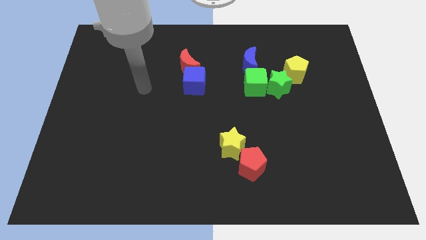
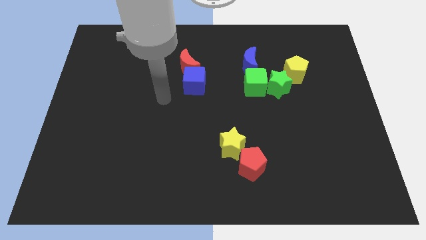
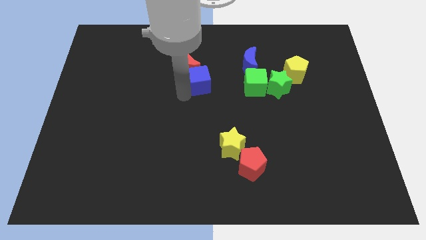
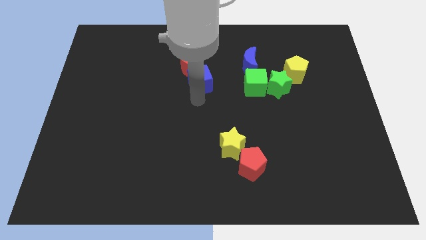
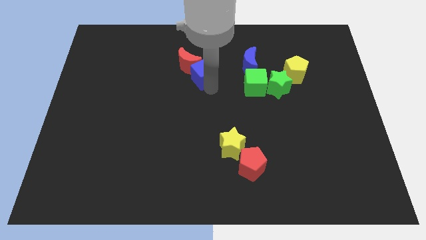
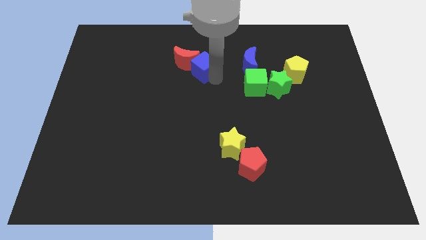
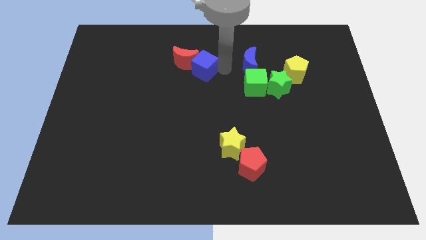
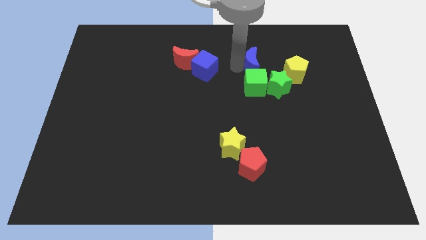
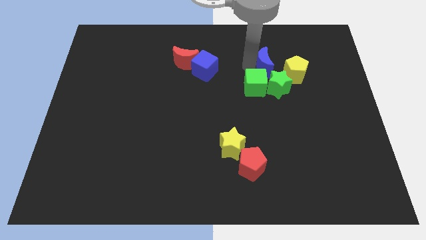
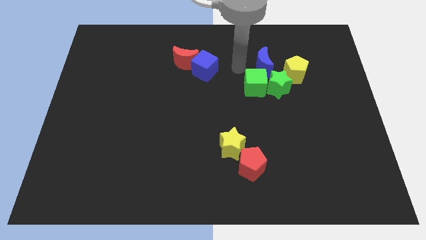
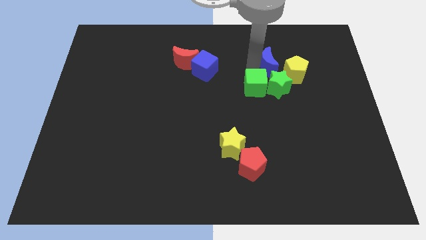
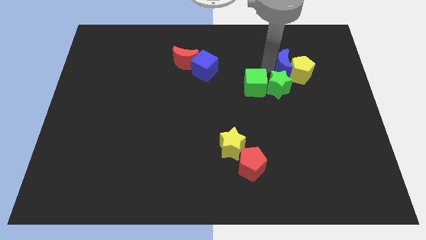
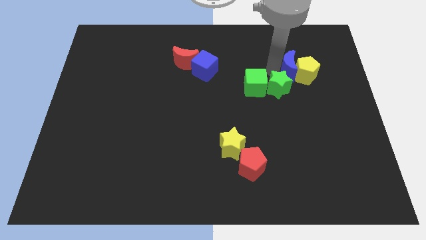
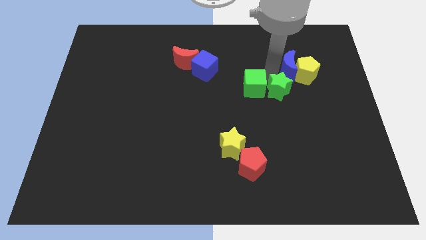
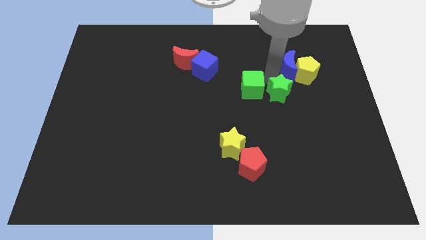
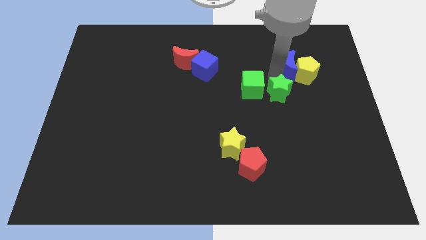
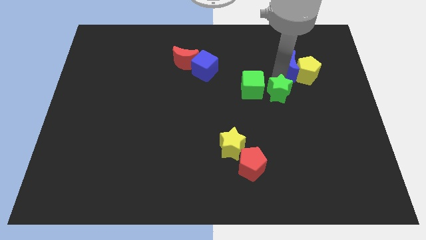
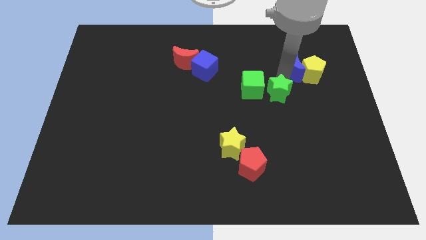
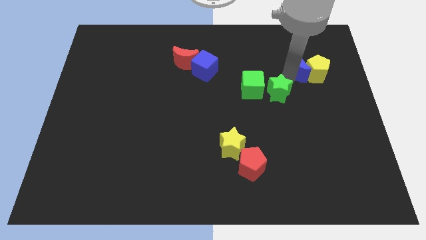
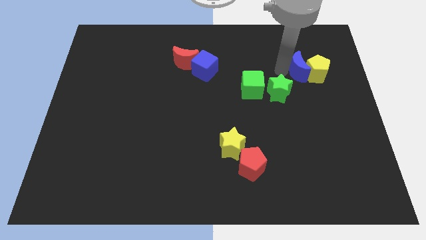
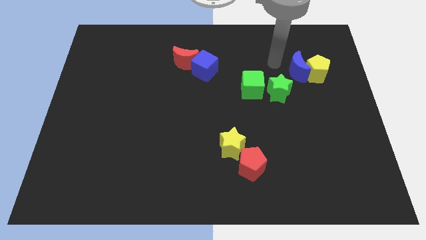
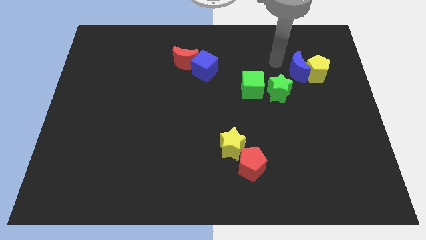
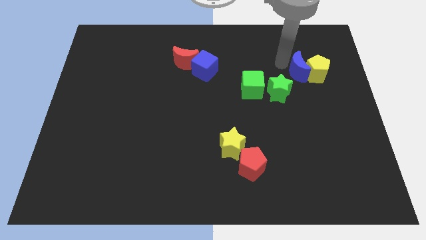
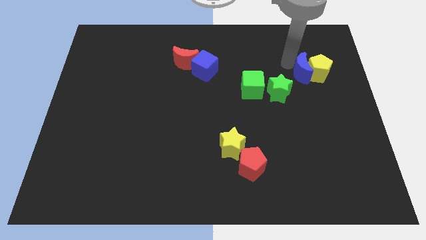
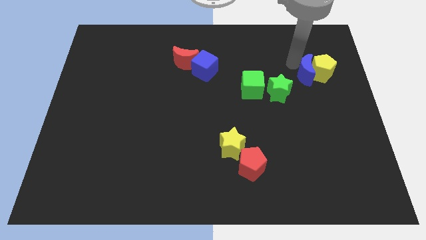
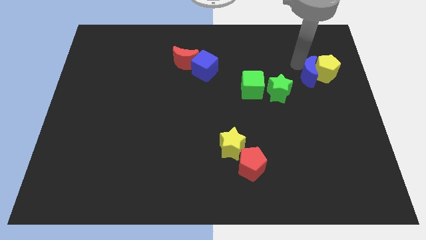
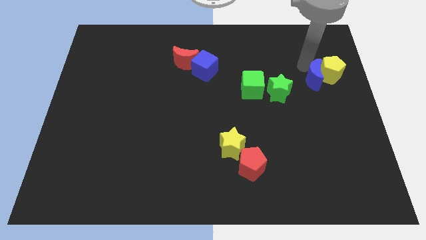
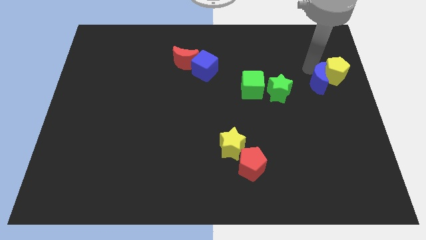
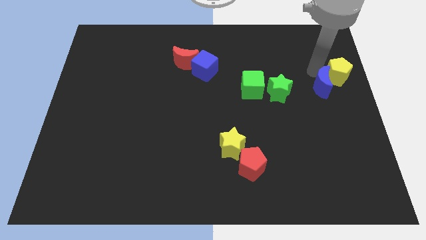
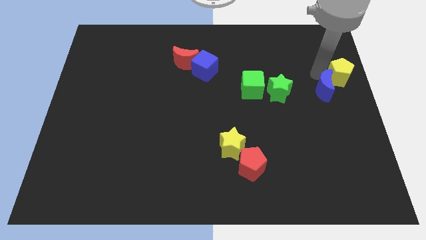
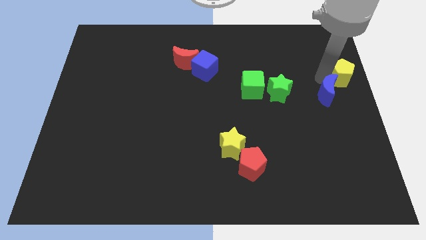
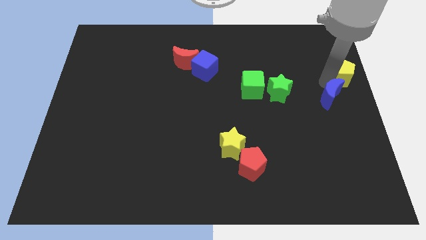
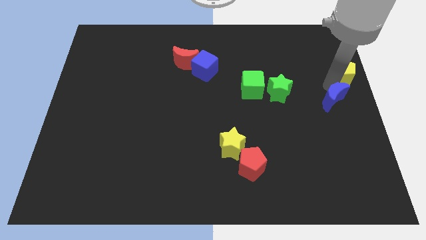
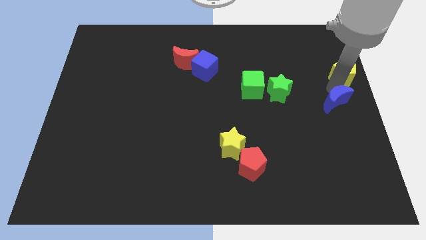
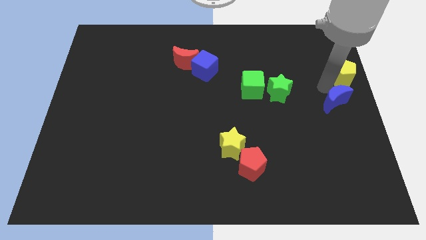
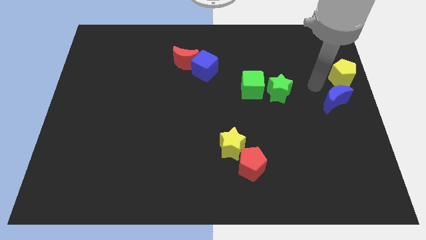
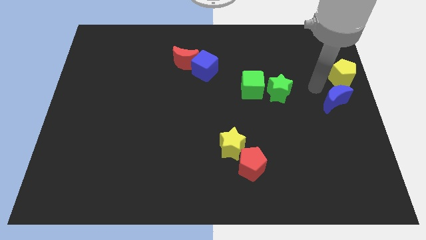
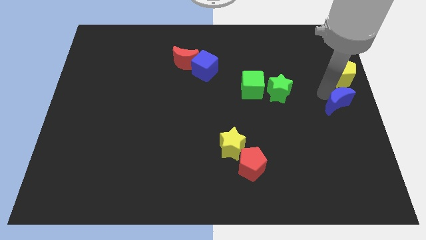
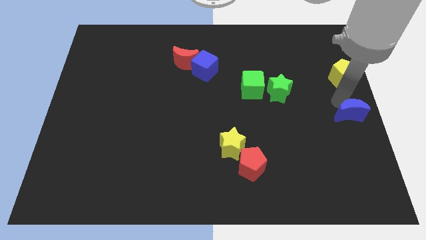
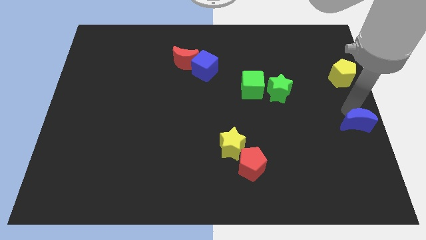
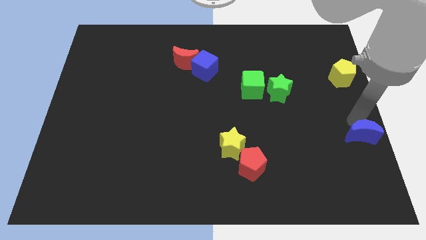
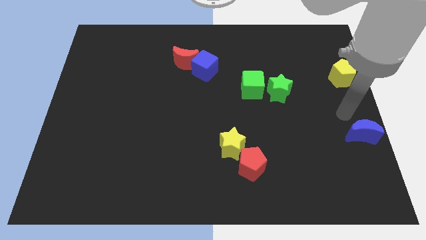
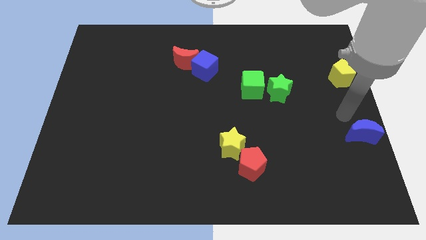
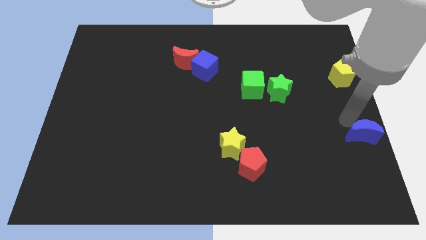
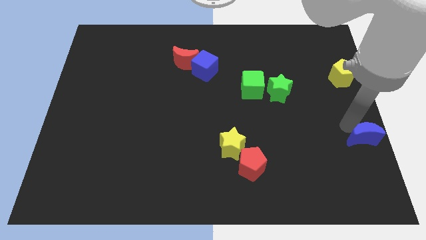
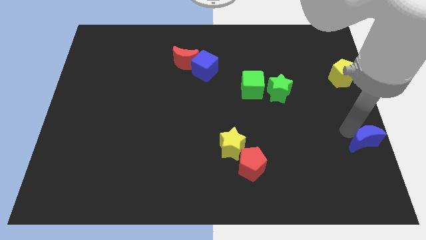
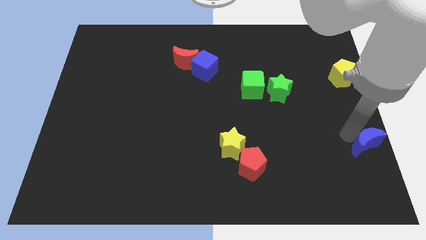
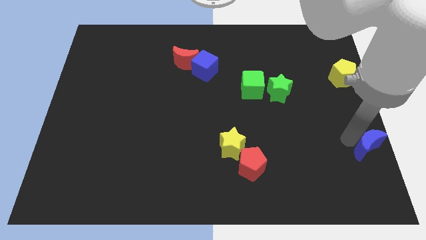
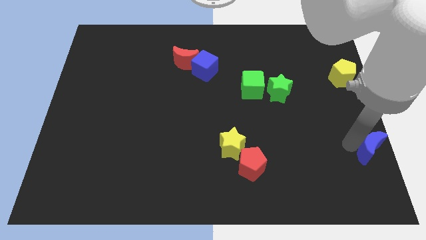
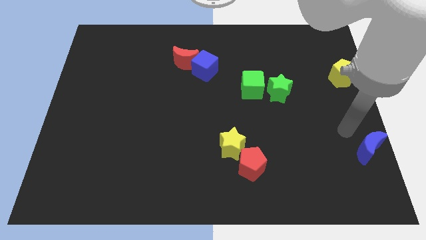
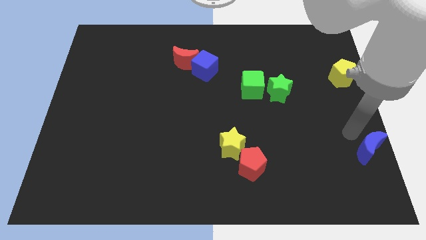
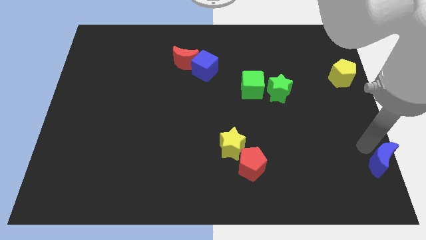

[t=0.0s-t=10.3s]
move the blue moon to the bottom right

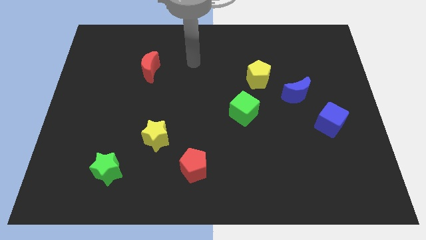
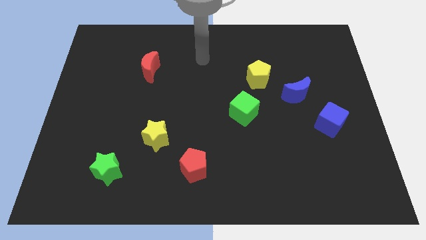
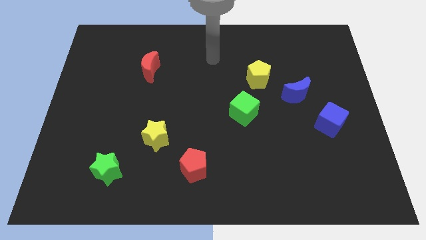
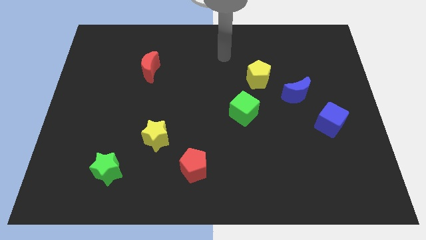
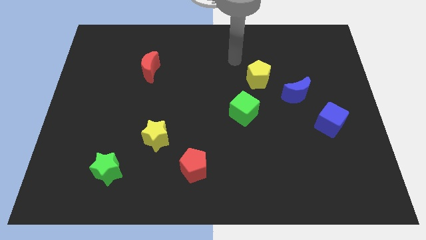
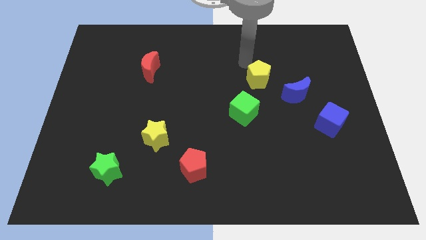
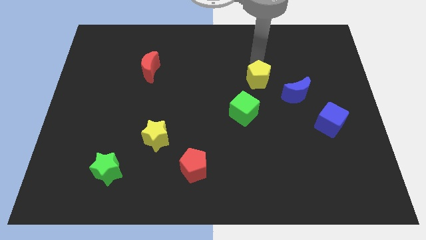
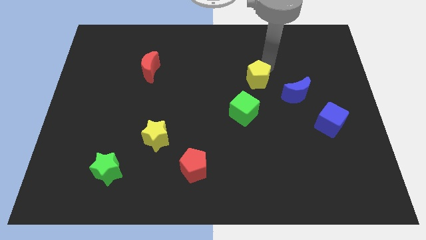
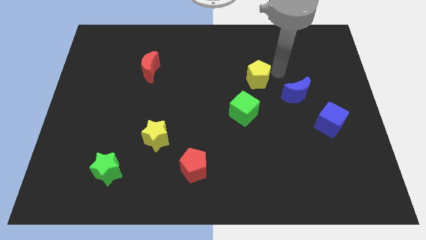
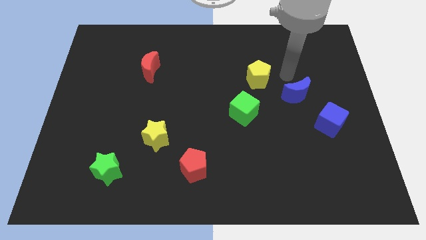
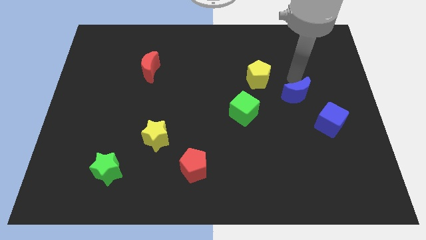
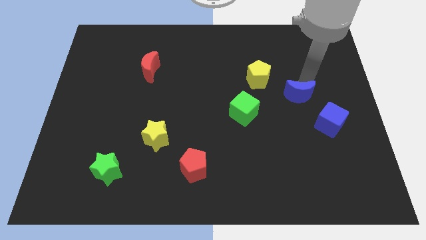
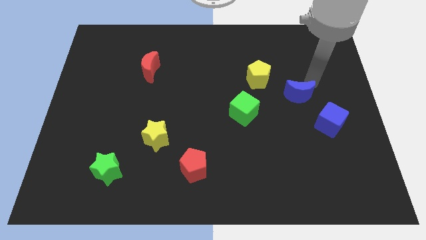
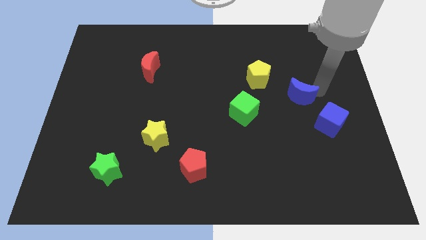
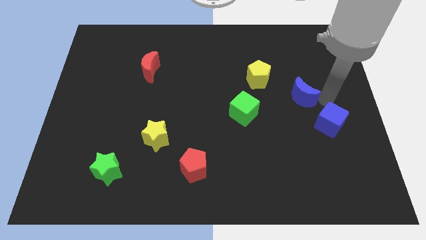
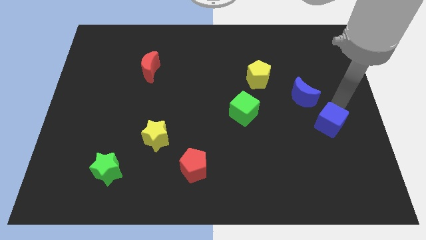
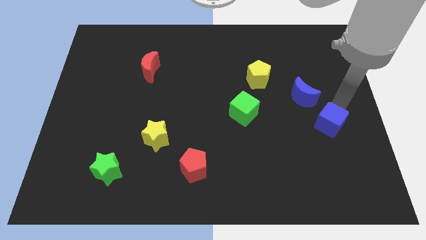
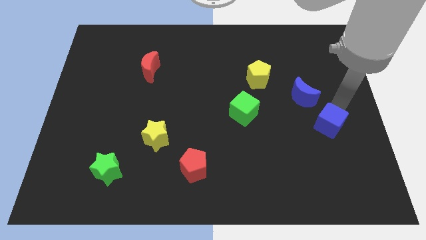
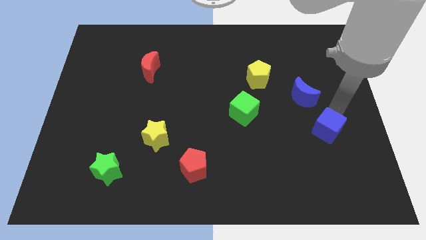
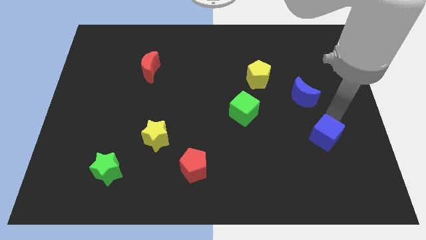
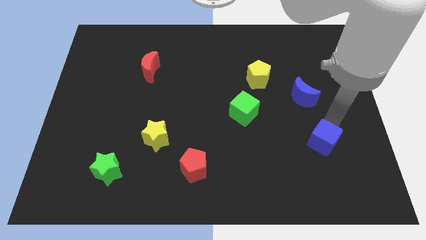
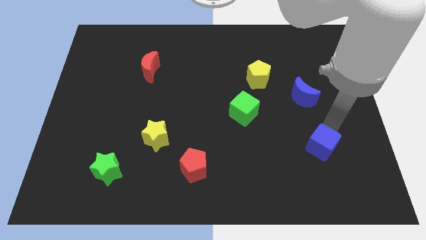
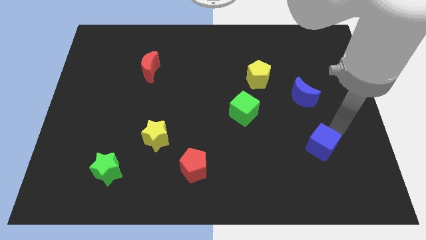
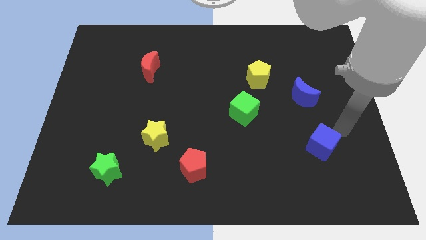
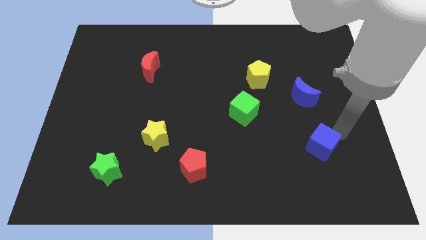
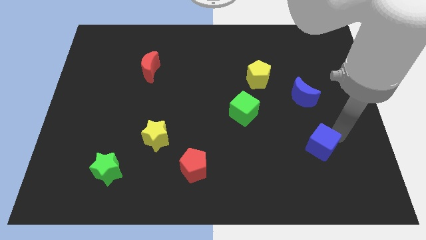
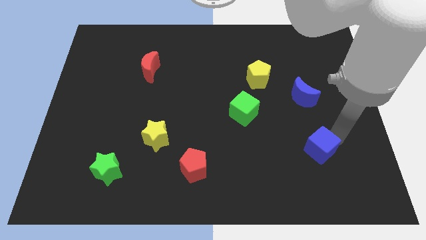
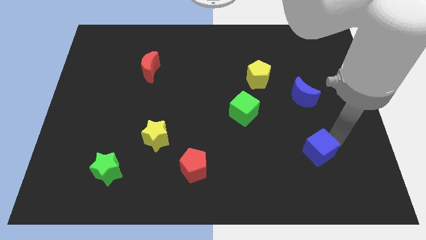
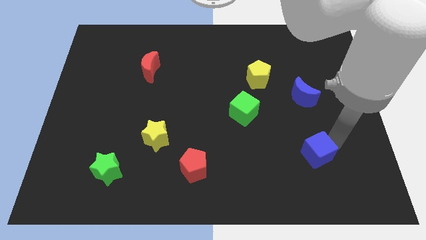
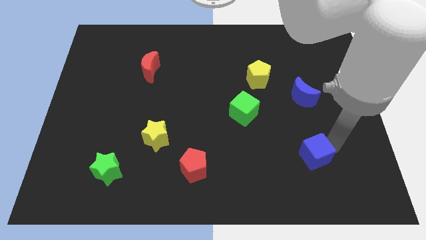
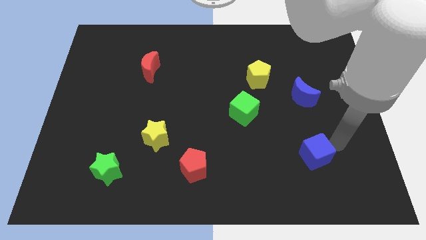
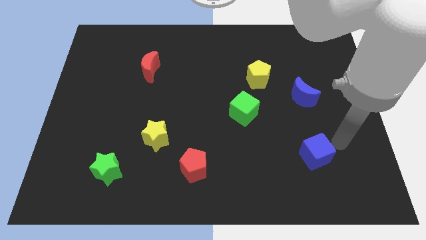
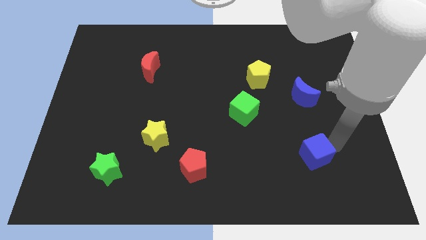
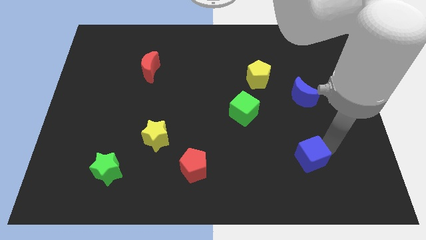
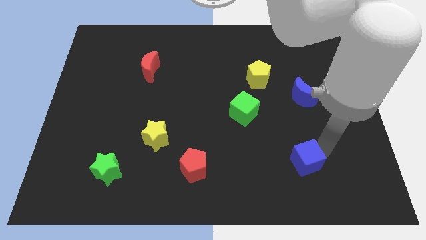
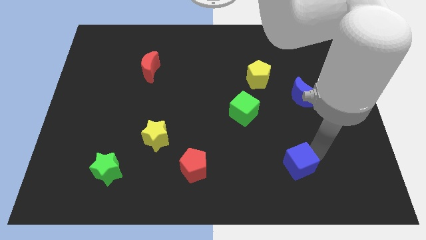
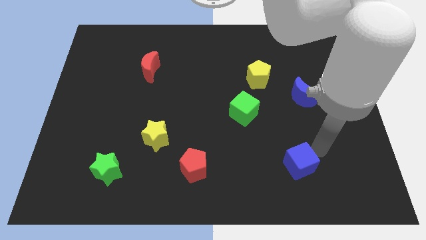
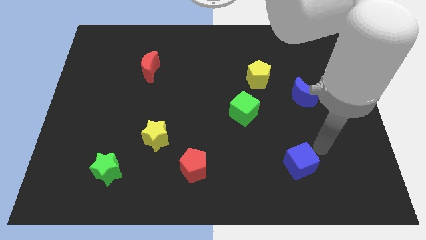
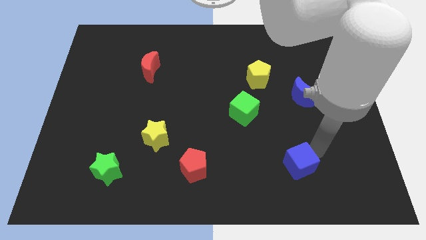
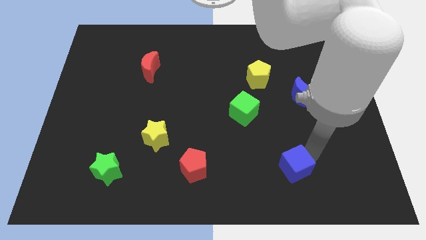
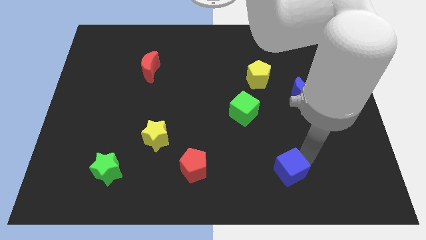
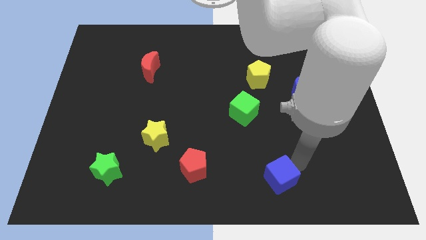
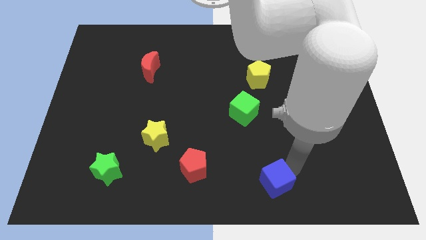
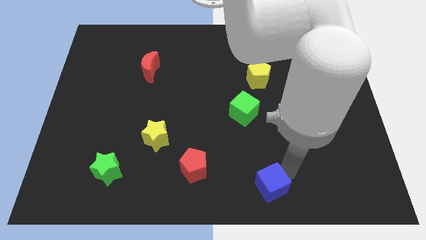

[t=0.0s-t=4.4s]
put the blue cube to the bottom side
